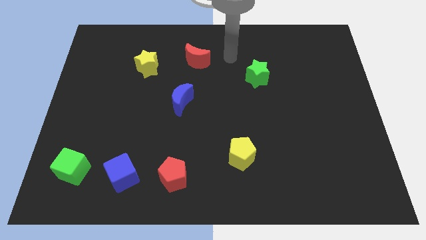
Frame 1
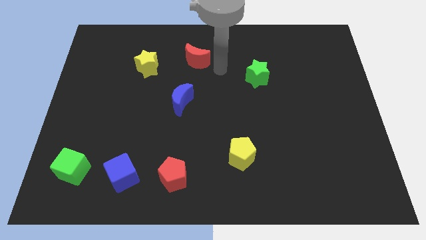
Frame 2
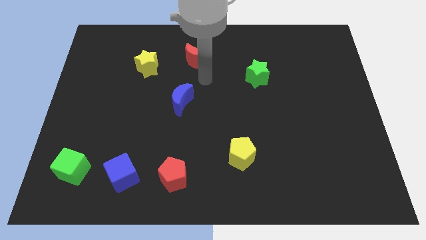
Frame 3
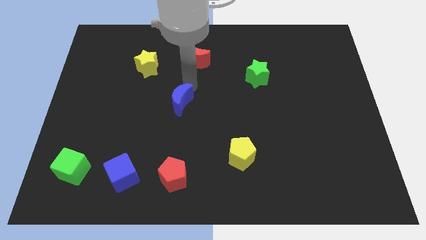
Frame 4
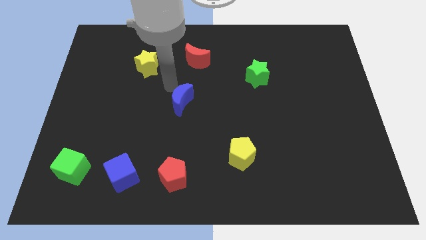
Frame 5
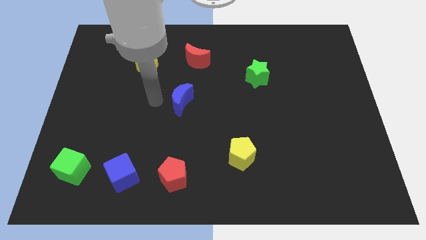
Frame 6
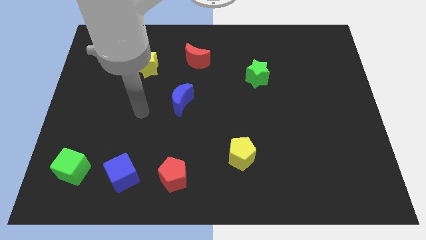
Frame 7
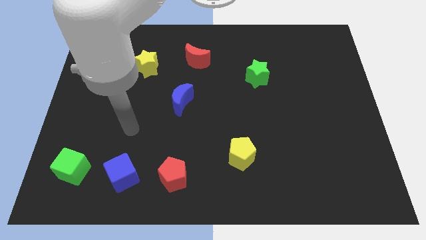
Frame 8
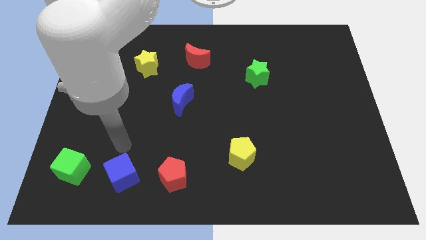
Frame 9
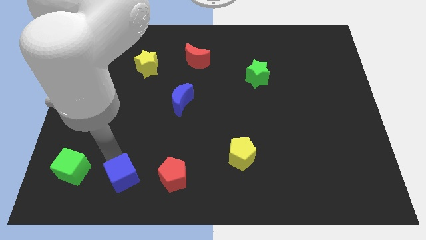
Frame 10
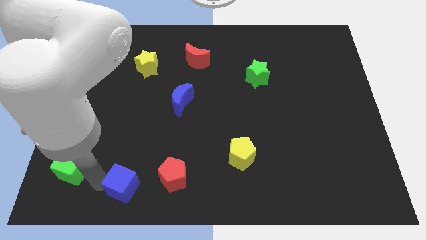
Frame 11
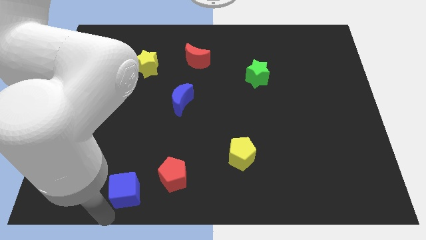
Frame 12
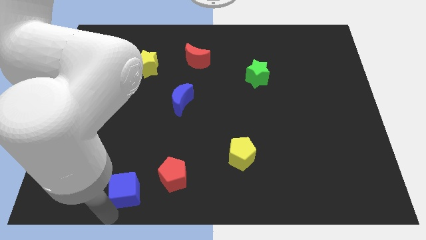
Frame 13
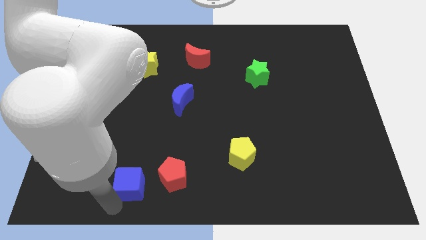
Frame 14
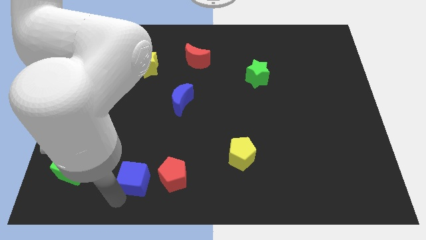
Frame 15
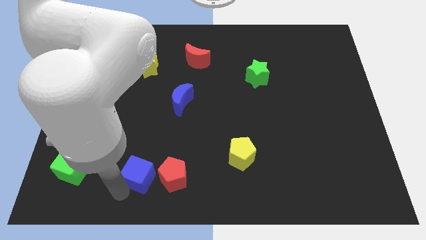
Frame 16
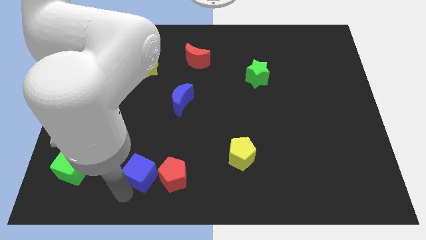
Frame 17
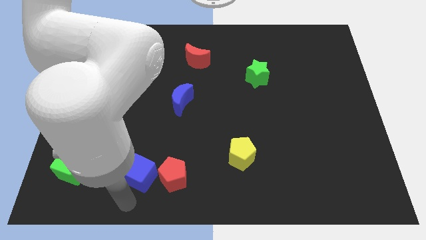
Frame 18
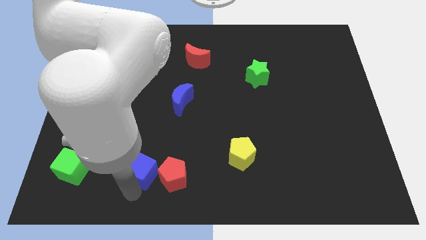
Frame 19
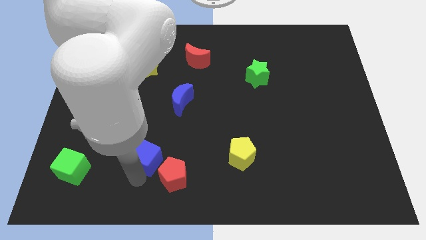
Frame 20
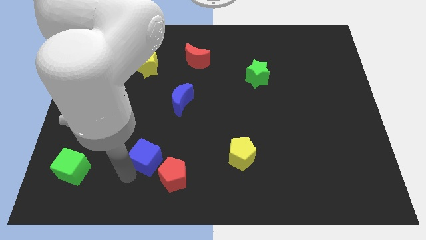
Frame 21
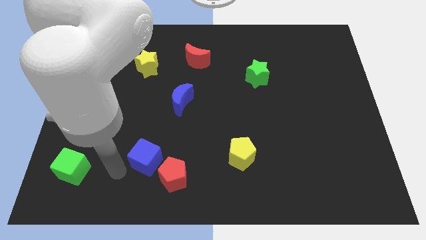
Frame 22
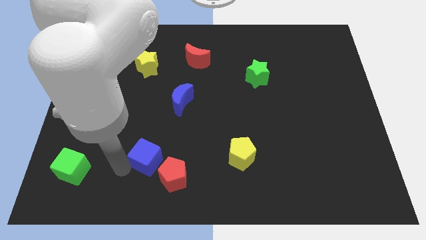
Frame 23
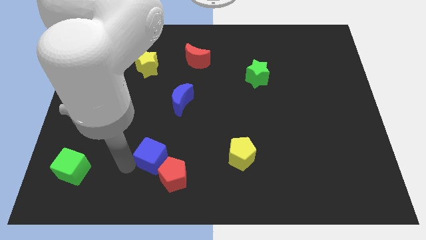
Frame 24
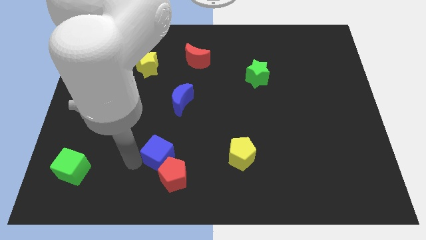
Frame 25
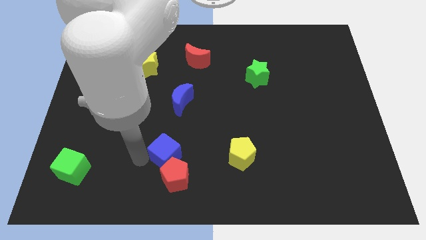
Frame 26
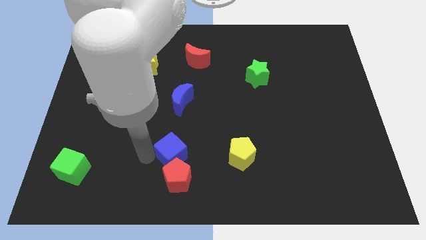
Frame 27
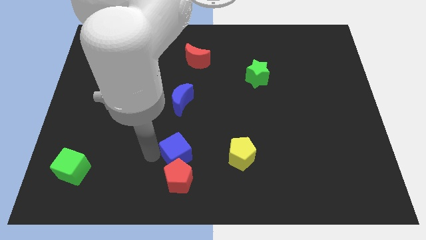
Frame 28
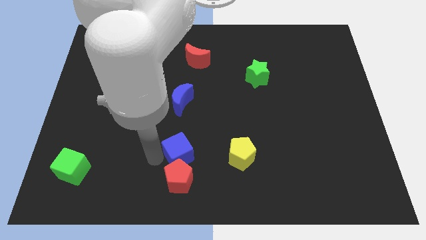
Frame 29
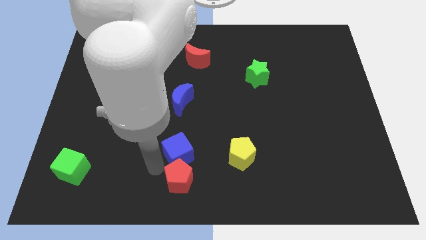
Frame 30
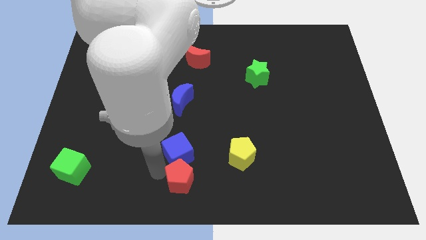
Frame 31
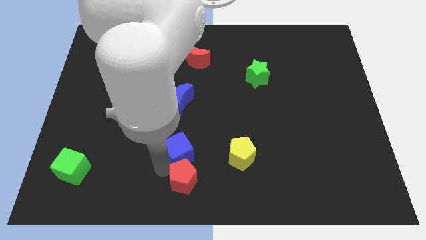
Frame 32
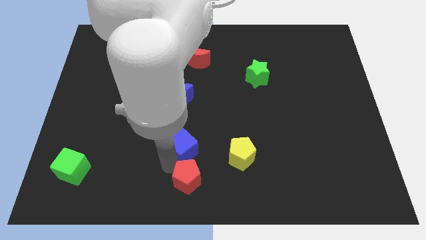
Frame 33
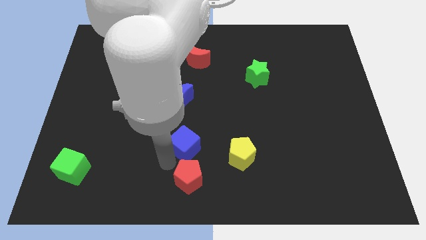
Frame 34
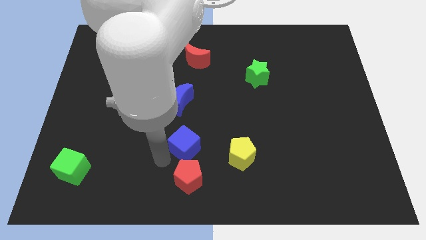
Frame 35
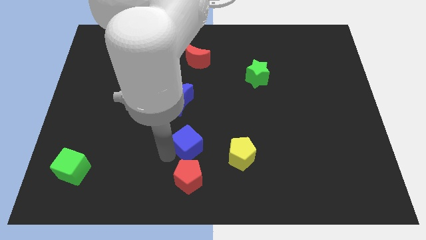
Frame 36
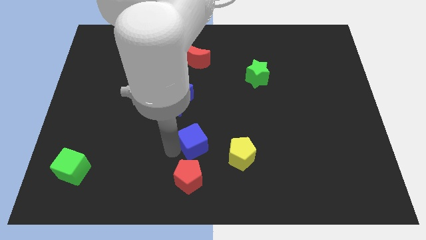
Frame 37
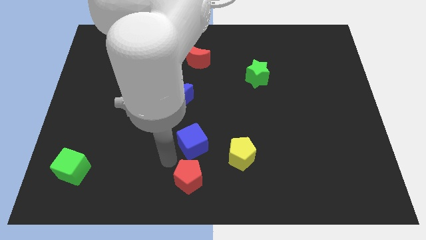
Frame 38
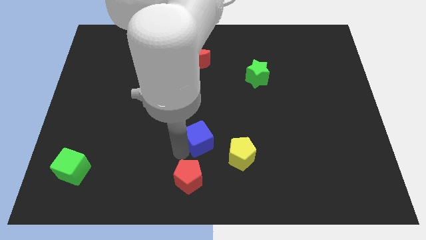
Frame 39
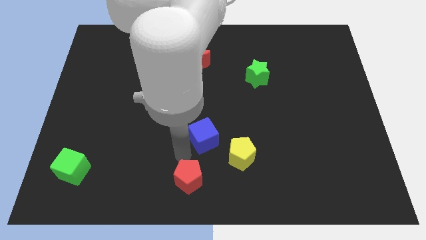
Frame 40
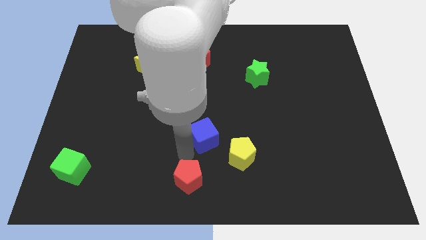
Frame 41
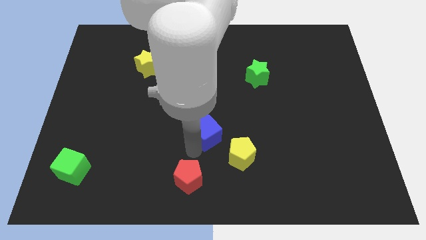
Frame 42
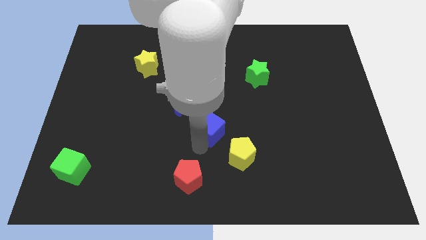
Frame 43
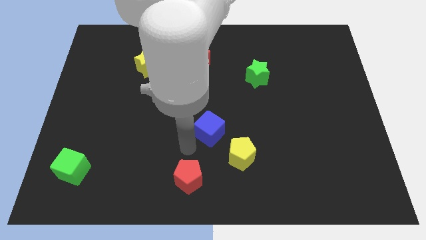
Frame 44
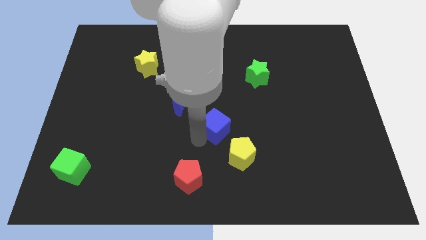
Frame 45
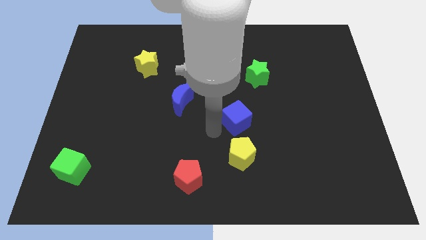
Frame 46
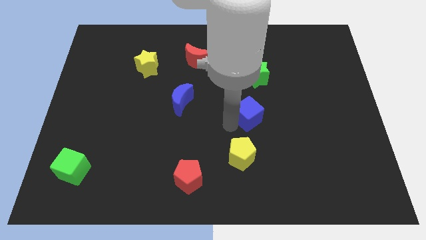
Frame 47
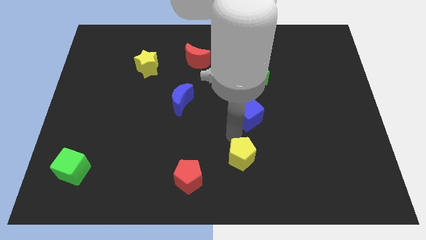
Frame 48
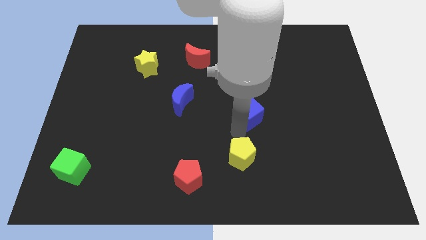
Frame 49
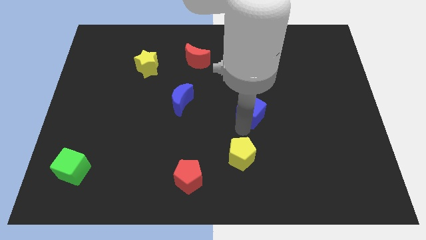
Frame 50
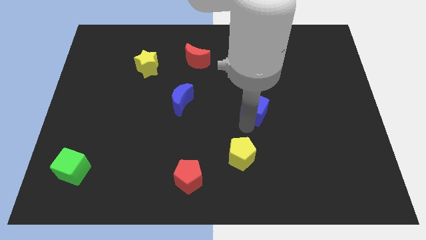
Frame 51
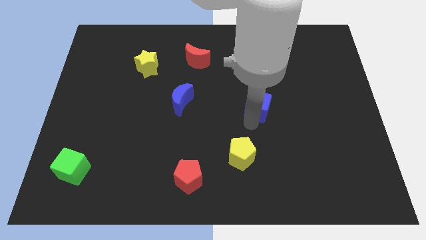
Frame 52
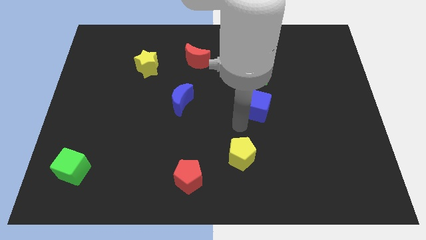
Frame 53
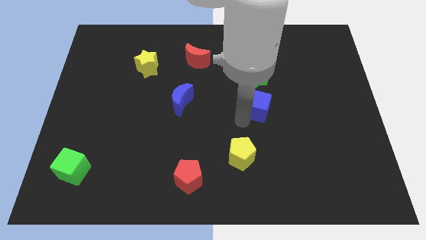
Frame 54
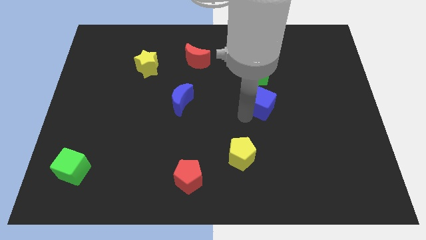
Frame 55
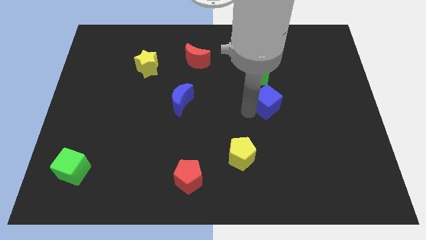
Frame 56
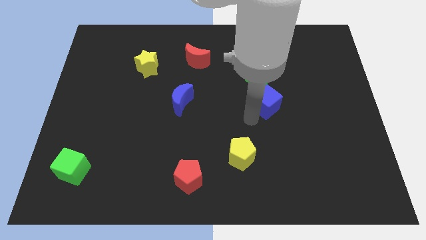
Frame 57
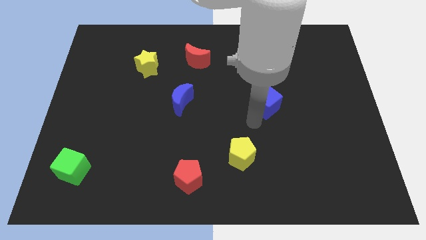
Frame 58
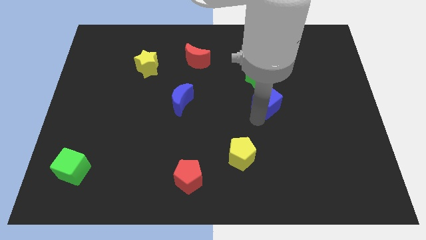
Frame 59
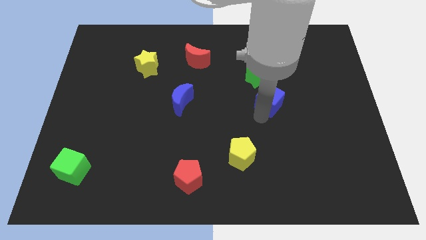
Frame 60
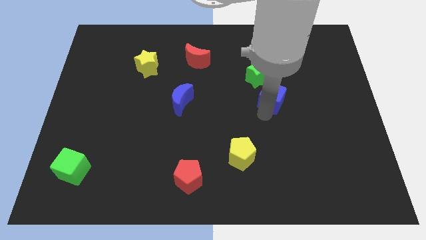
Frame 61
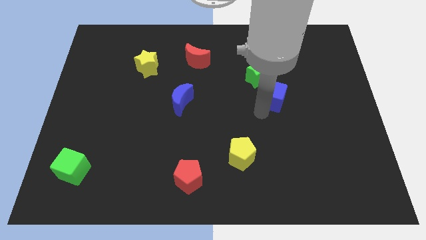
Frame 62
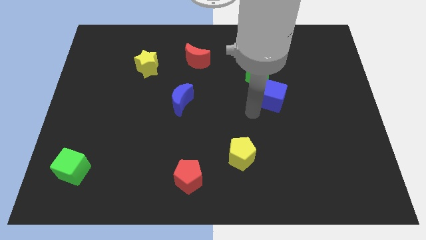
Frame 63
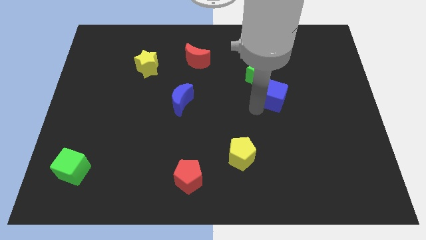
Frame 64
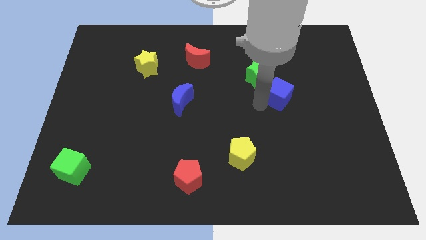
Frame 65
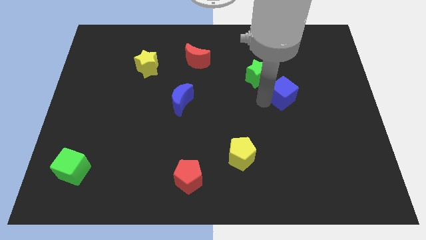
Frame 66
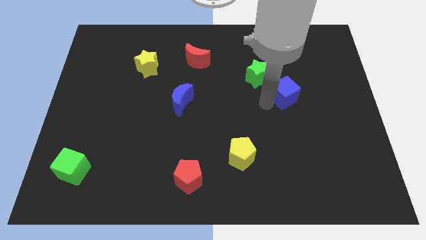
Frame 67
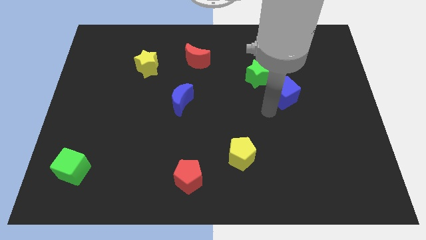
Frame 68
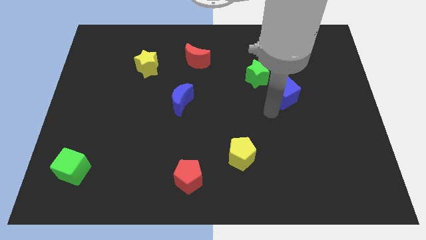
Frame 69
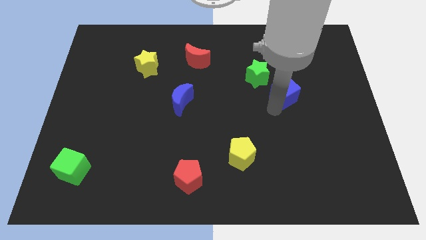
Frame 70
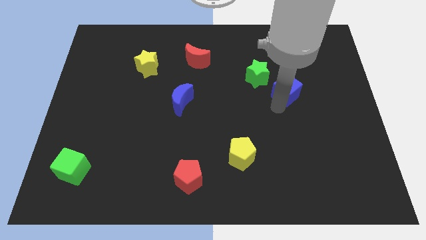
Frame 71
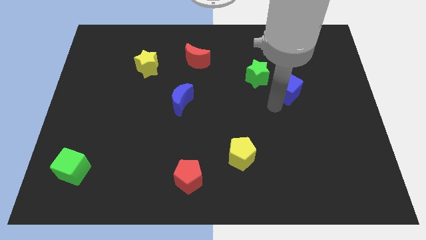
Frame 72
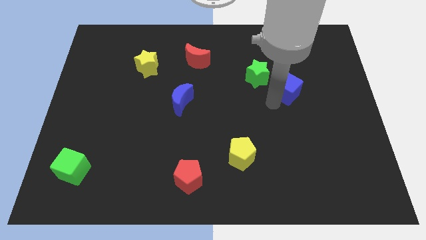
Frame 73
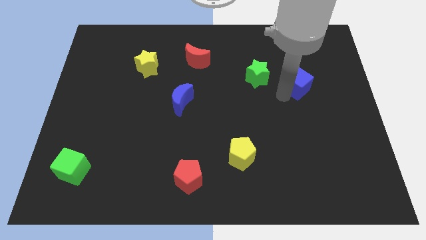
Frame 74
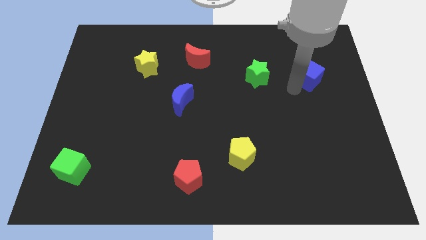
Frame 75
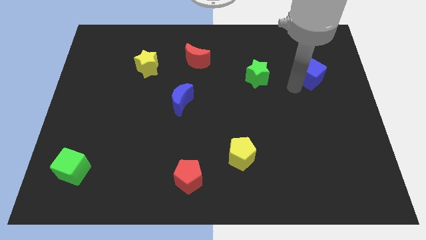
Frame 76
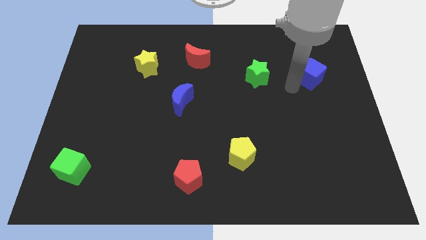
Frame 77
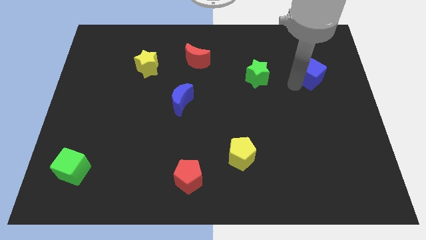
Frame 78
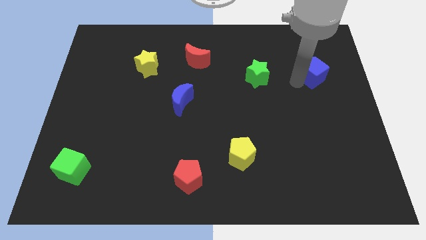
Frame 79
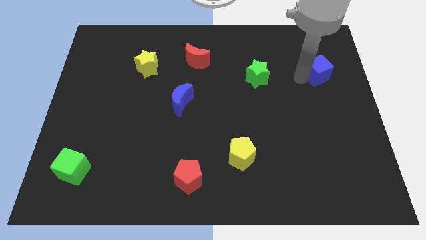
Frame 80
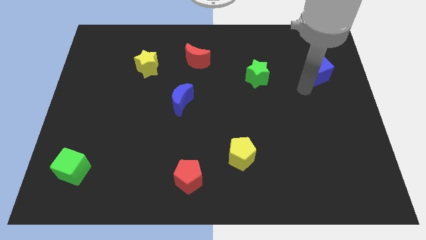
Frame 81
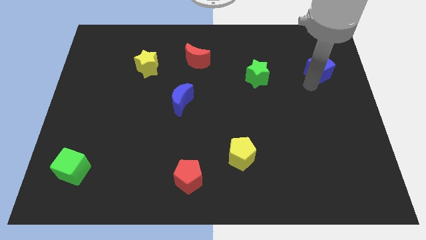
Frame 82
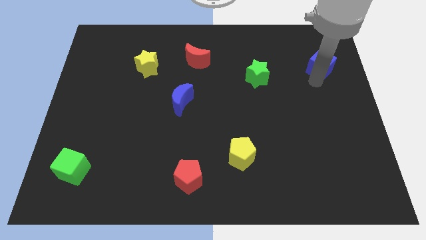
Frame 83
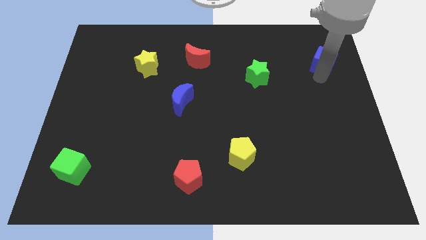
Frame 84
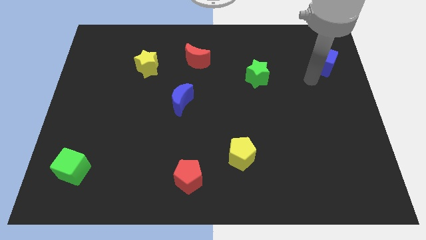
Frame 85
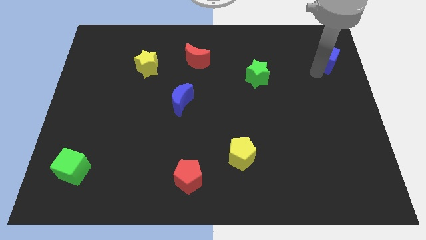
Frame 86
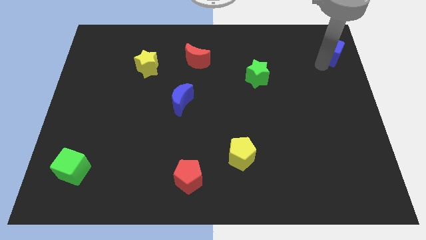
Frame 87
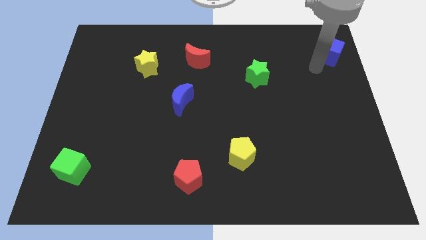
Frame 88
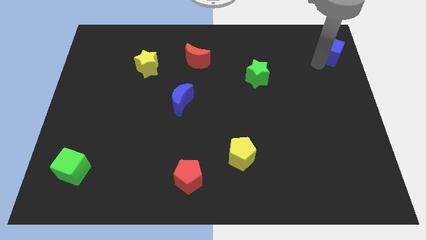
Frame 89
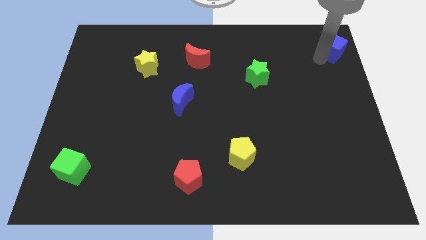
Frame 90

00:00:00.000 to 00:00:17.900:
push the blue cube to the top right corner
